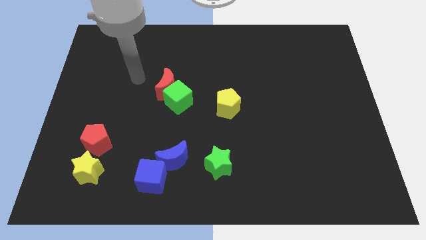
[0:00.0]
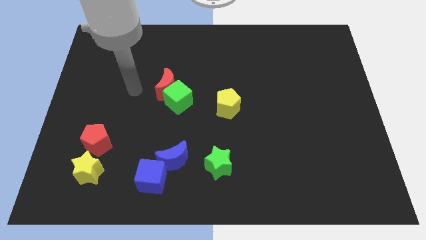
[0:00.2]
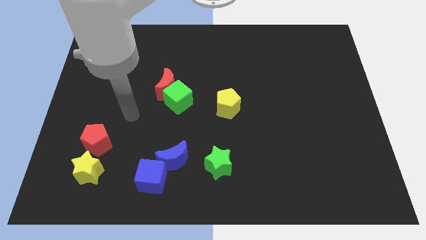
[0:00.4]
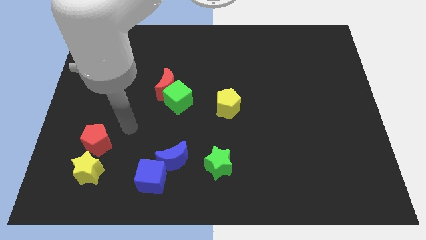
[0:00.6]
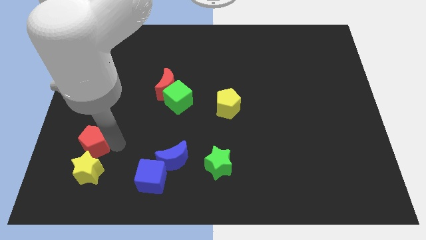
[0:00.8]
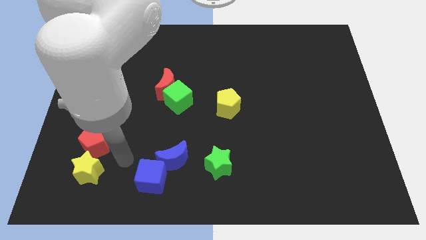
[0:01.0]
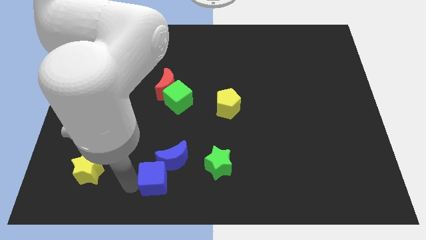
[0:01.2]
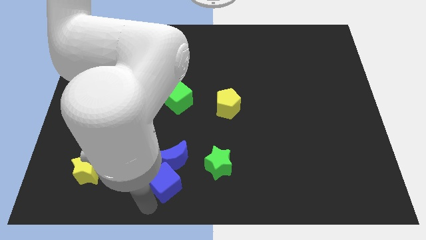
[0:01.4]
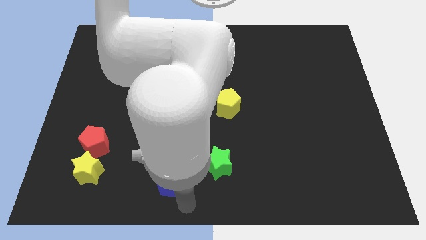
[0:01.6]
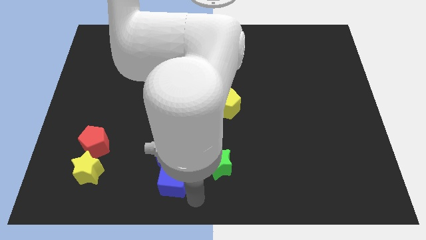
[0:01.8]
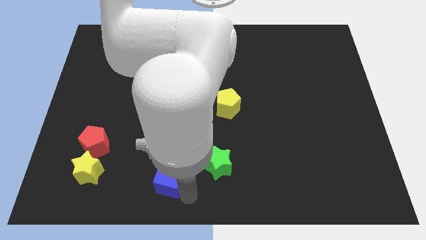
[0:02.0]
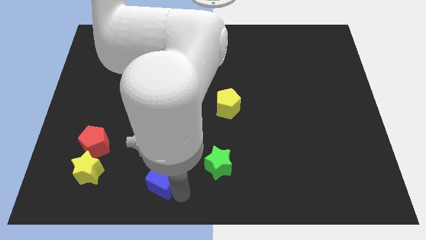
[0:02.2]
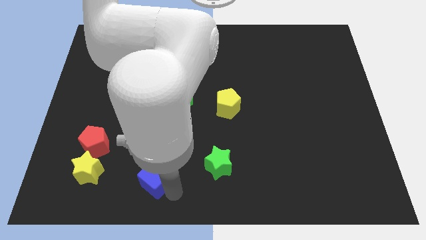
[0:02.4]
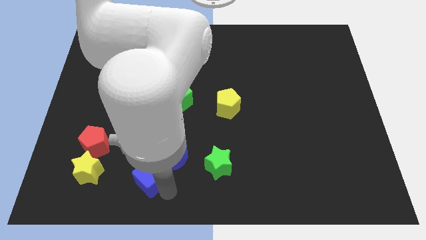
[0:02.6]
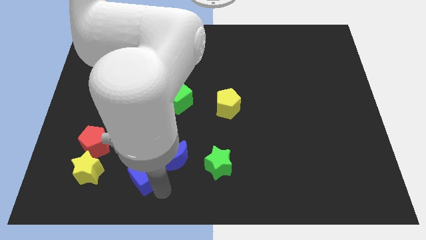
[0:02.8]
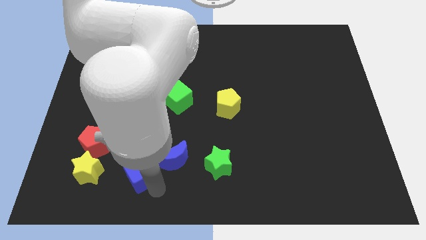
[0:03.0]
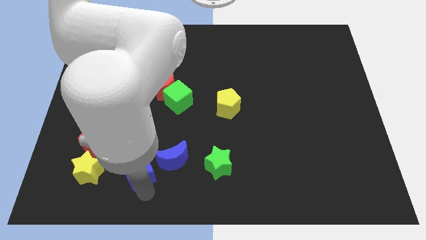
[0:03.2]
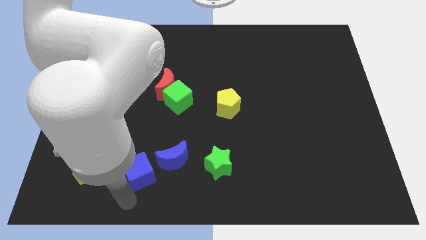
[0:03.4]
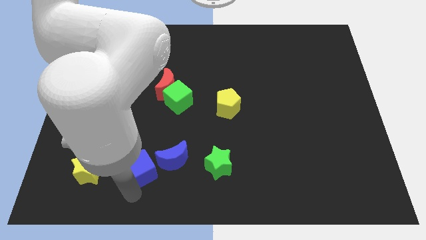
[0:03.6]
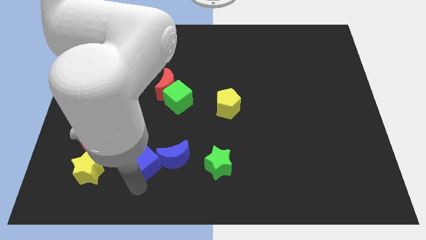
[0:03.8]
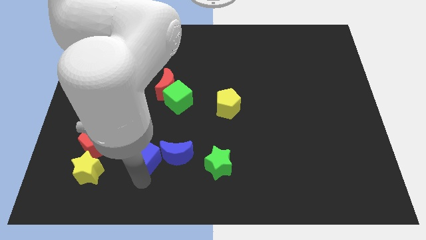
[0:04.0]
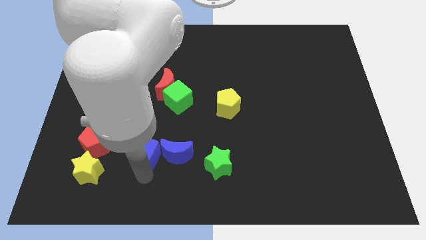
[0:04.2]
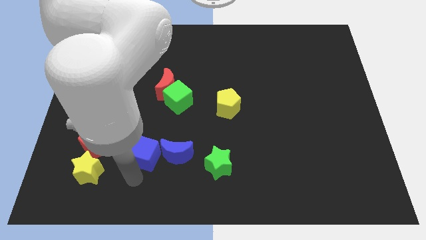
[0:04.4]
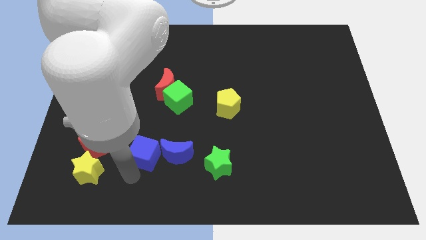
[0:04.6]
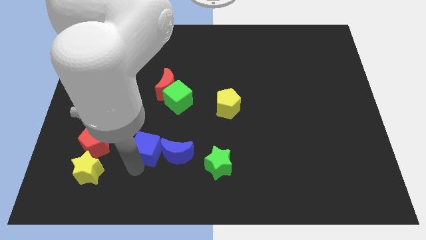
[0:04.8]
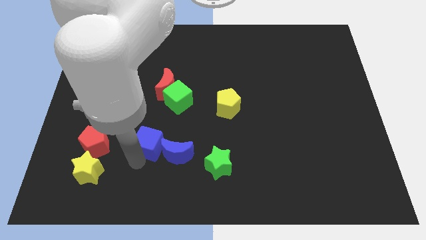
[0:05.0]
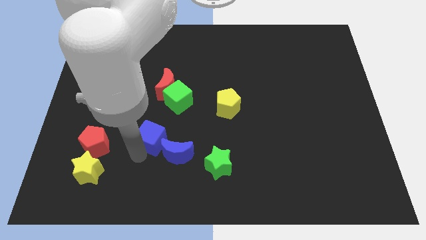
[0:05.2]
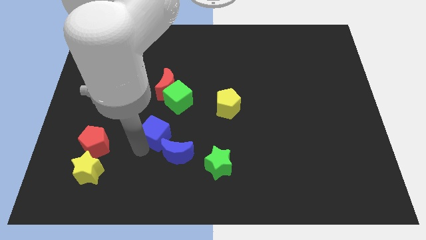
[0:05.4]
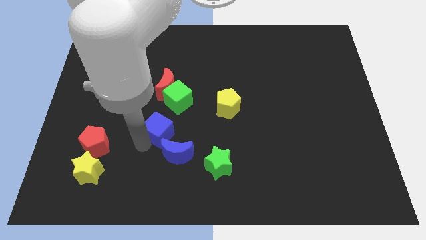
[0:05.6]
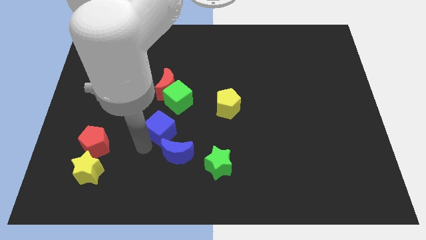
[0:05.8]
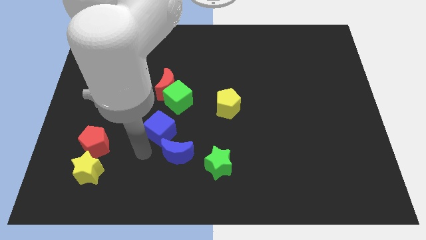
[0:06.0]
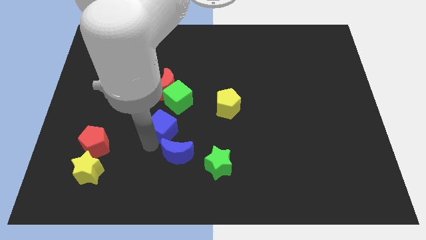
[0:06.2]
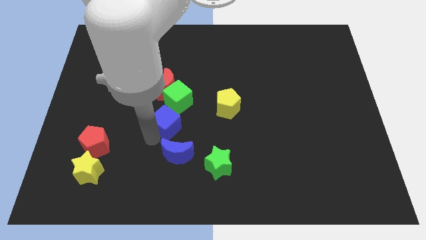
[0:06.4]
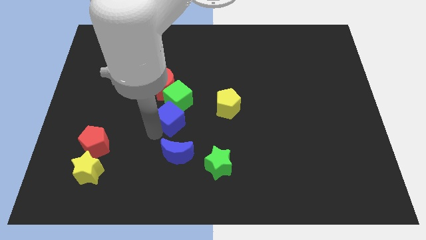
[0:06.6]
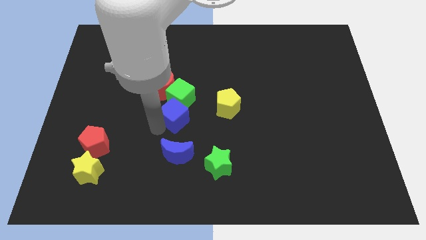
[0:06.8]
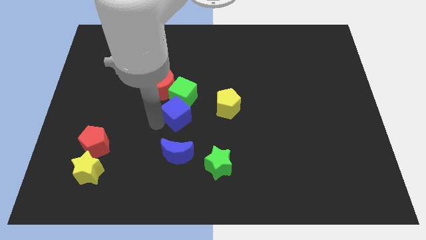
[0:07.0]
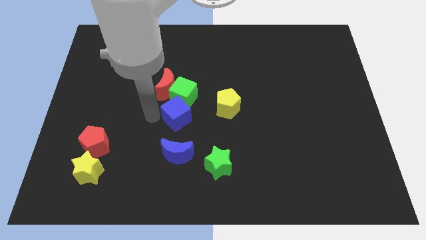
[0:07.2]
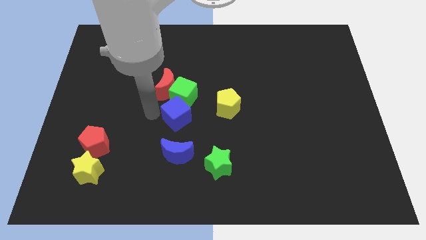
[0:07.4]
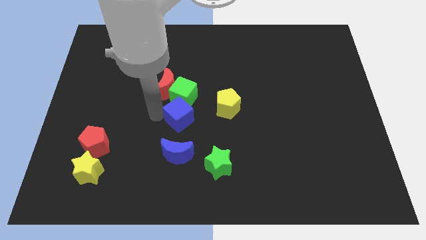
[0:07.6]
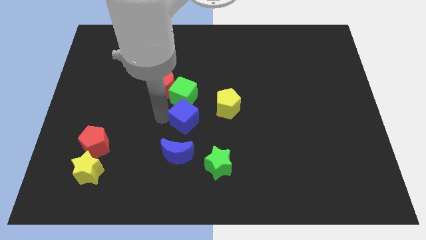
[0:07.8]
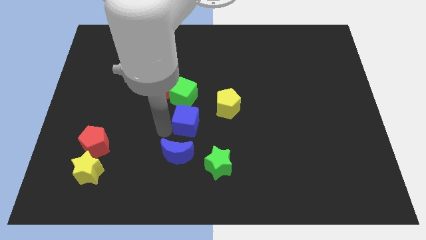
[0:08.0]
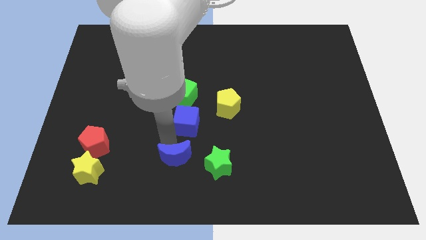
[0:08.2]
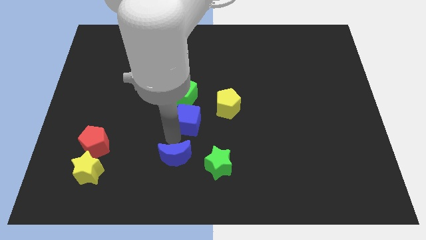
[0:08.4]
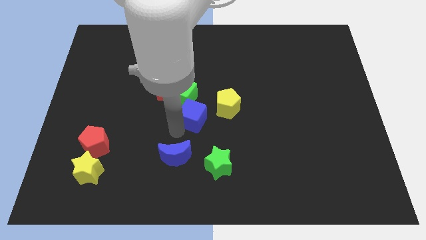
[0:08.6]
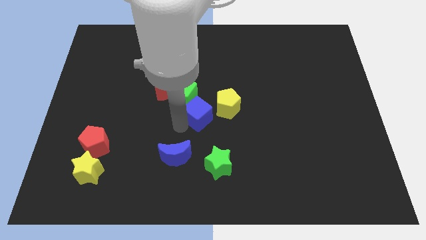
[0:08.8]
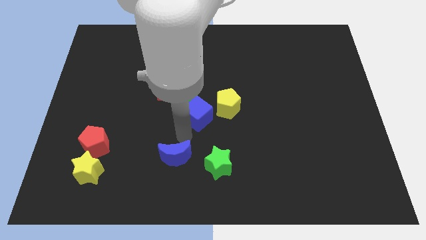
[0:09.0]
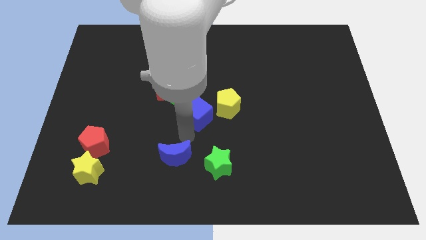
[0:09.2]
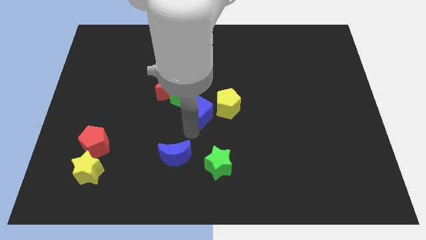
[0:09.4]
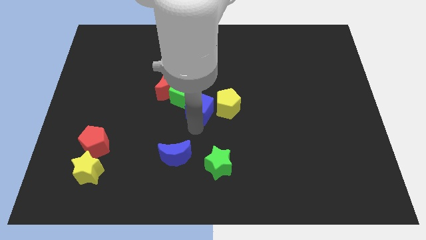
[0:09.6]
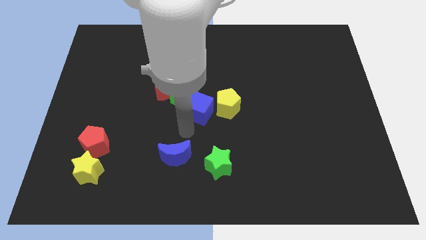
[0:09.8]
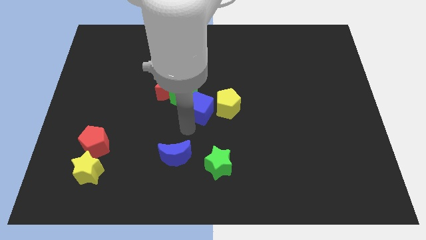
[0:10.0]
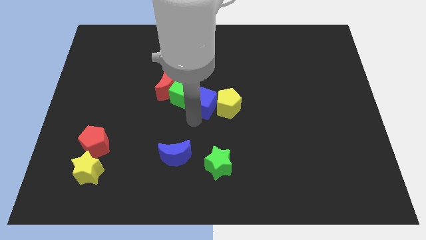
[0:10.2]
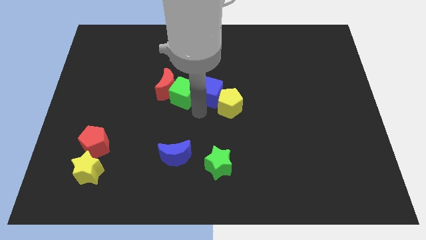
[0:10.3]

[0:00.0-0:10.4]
move the blue cube to the top side of the yellow pentagon

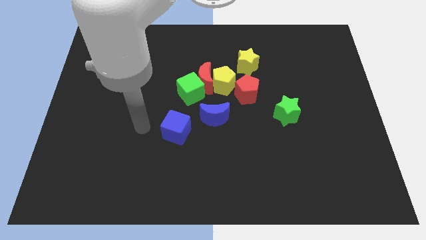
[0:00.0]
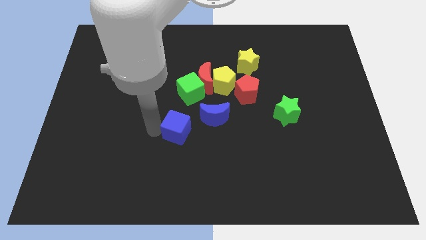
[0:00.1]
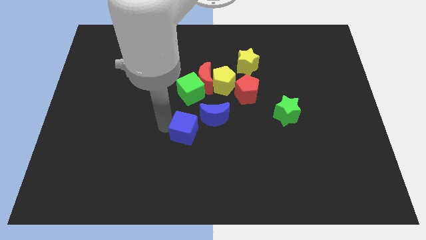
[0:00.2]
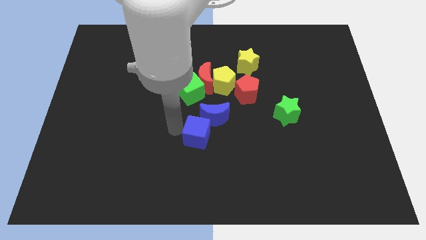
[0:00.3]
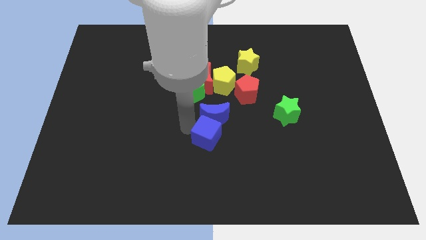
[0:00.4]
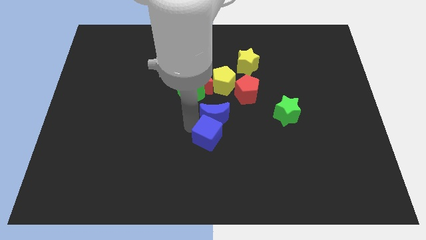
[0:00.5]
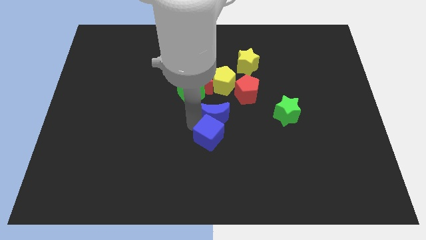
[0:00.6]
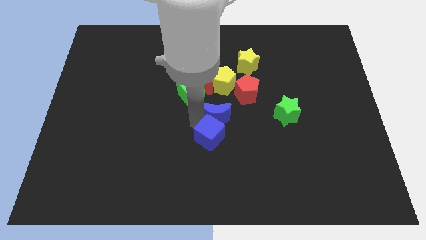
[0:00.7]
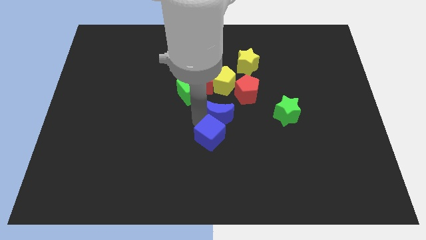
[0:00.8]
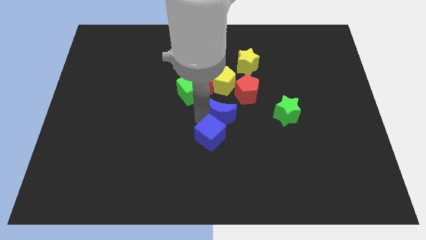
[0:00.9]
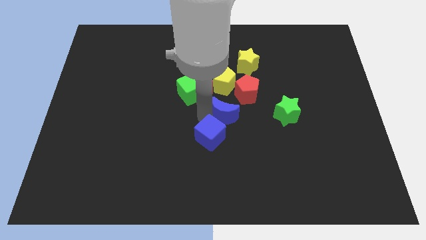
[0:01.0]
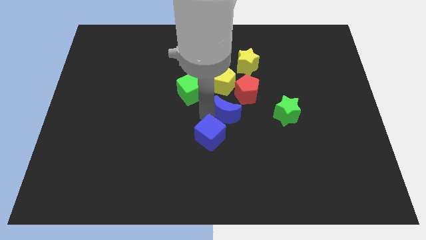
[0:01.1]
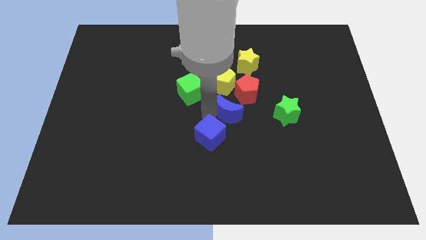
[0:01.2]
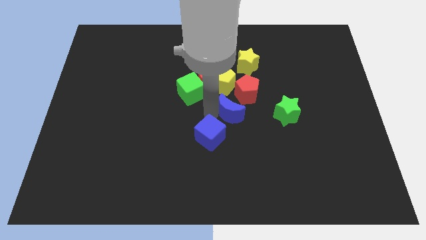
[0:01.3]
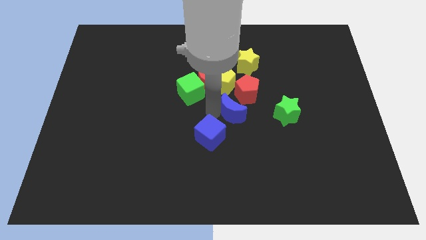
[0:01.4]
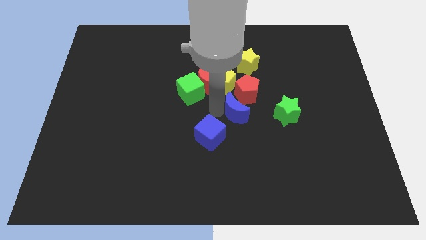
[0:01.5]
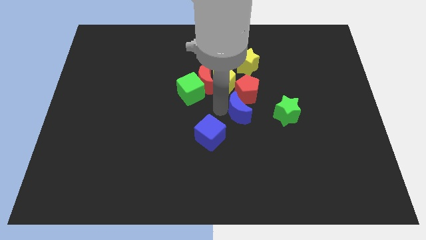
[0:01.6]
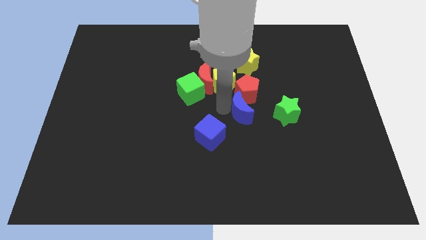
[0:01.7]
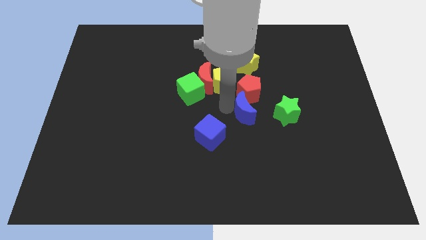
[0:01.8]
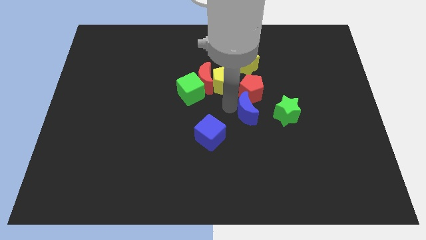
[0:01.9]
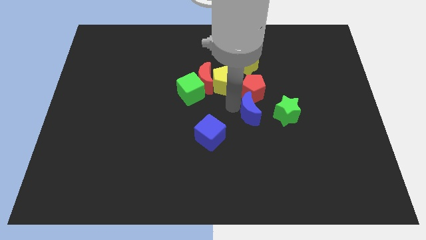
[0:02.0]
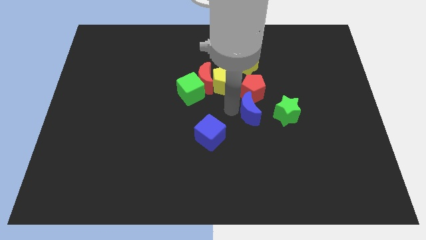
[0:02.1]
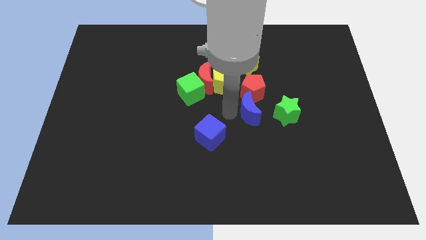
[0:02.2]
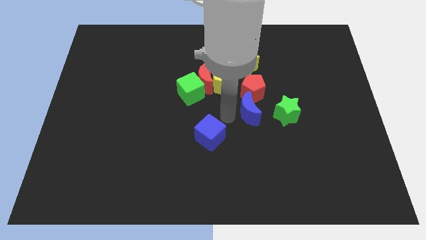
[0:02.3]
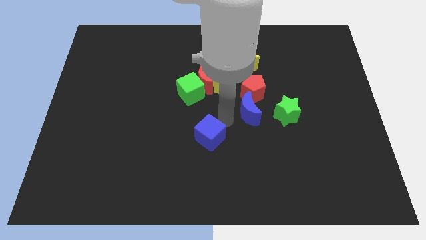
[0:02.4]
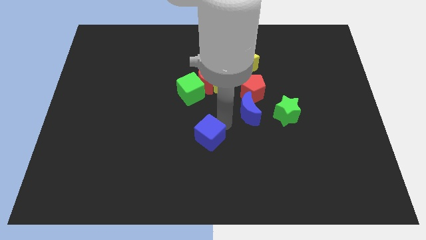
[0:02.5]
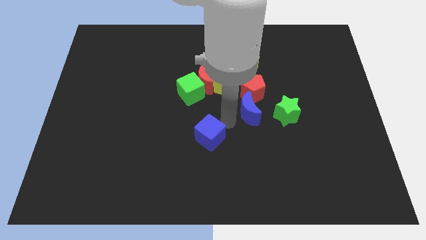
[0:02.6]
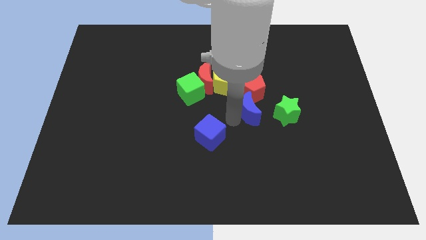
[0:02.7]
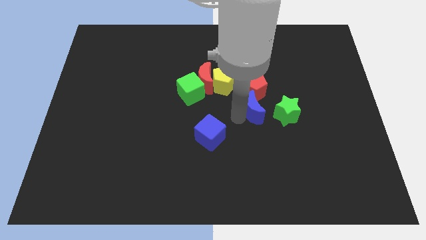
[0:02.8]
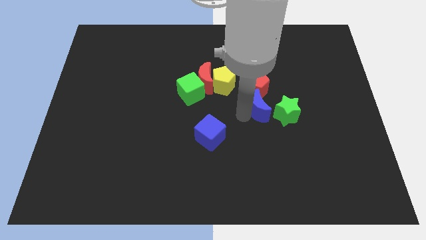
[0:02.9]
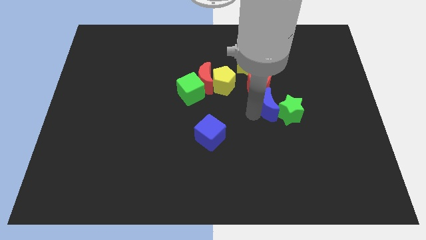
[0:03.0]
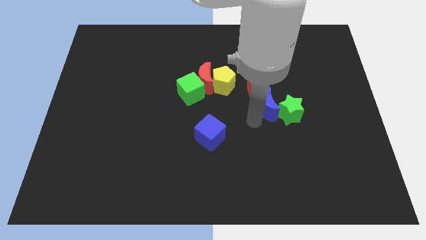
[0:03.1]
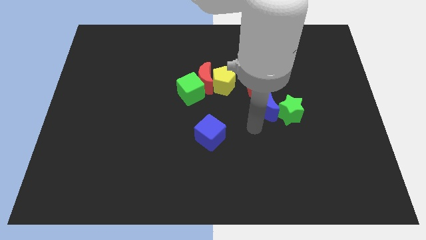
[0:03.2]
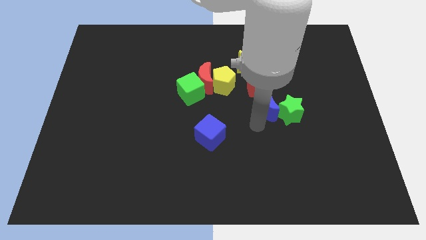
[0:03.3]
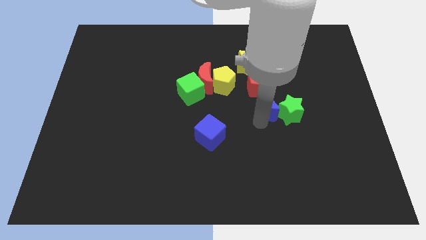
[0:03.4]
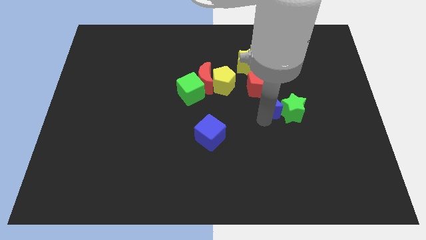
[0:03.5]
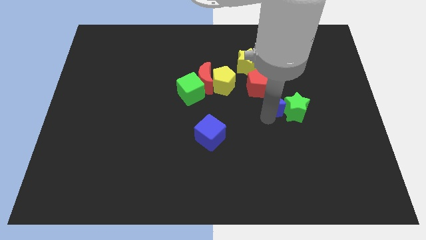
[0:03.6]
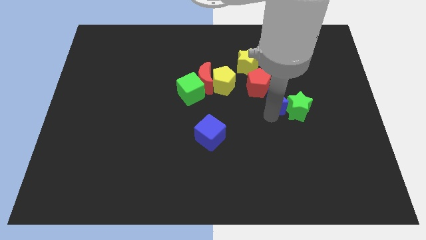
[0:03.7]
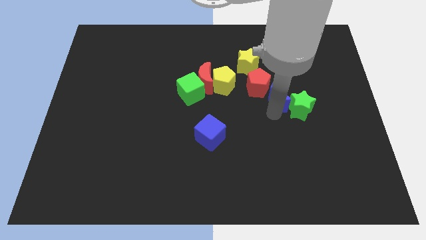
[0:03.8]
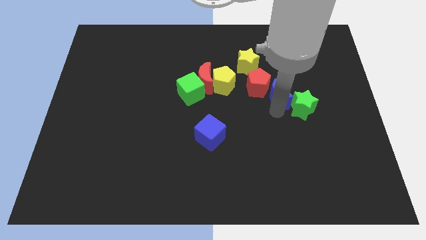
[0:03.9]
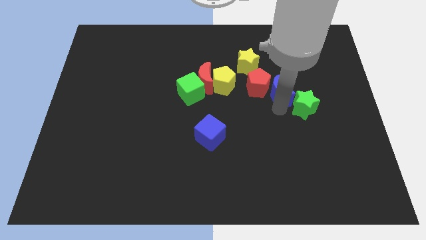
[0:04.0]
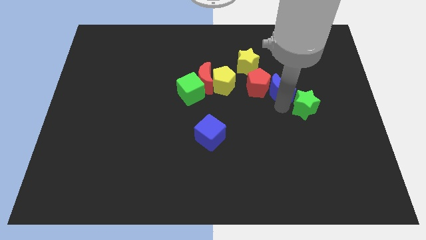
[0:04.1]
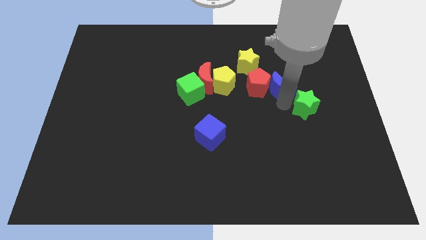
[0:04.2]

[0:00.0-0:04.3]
put the blue moon to the top side of the green star
